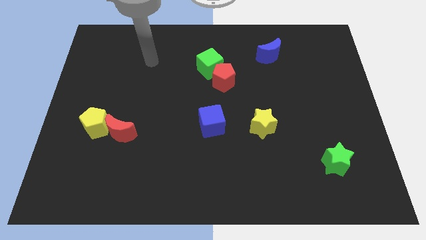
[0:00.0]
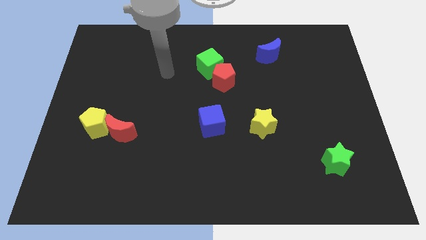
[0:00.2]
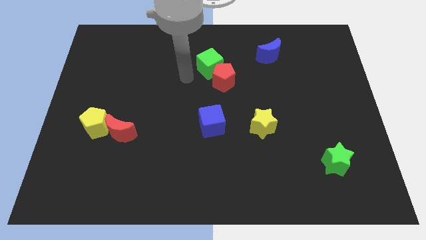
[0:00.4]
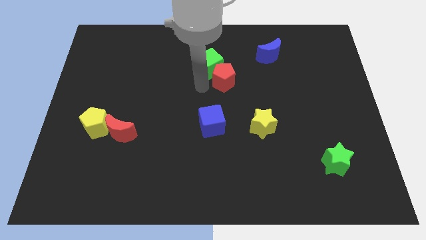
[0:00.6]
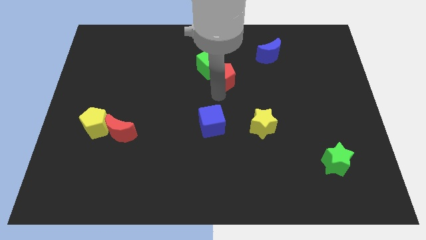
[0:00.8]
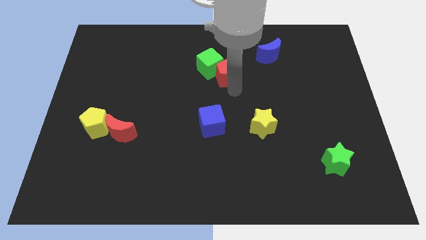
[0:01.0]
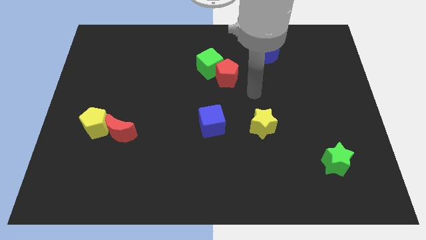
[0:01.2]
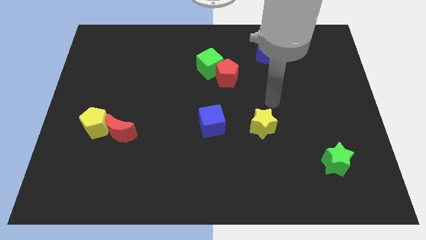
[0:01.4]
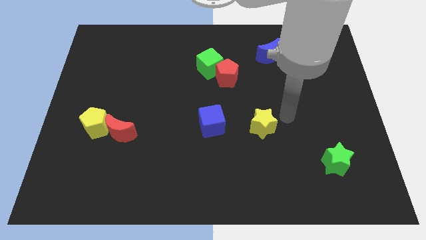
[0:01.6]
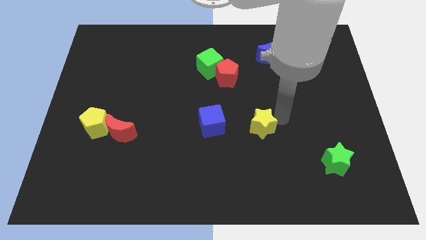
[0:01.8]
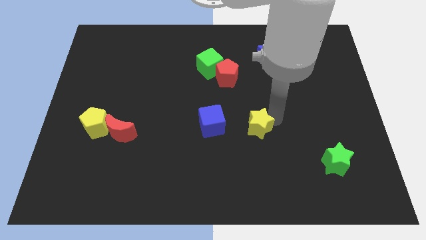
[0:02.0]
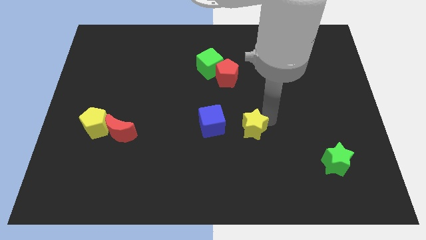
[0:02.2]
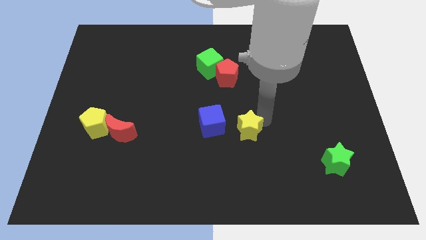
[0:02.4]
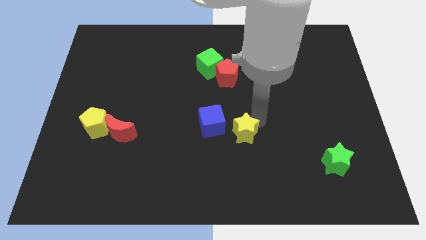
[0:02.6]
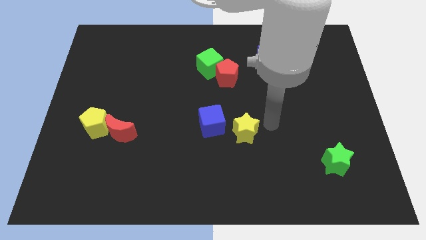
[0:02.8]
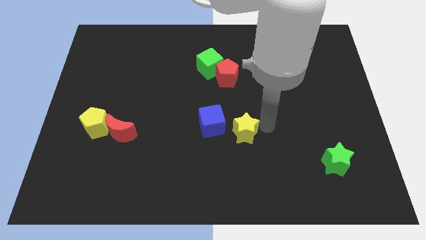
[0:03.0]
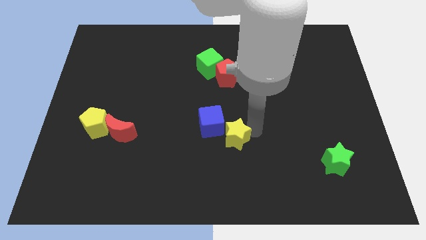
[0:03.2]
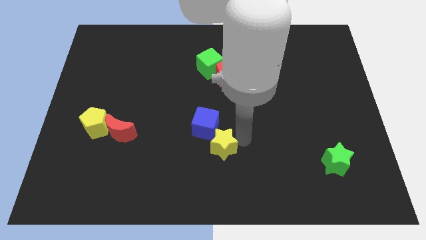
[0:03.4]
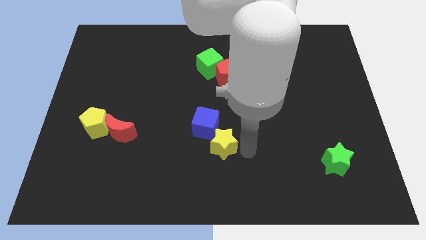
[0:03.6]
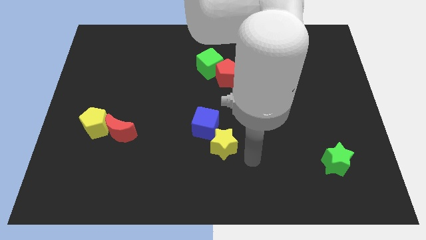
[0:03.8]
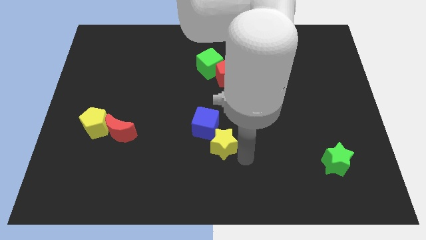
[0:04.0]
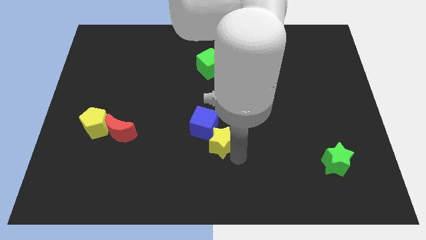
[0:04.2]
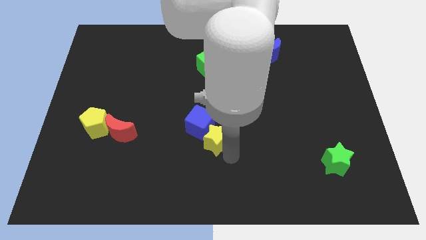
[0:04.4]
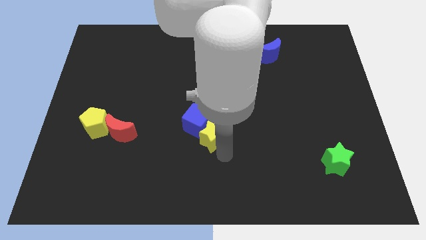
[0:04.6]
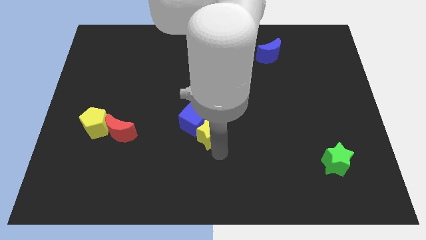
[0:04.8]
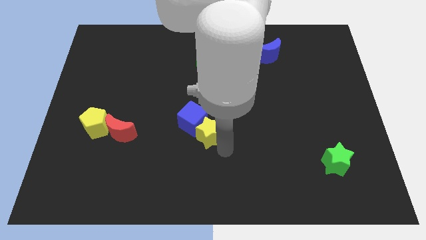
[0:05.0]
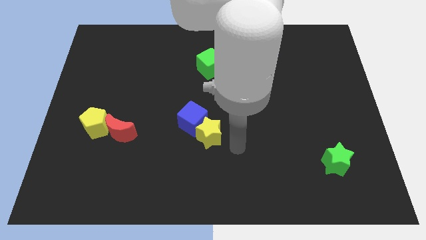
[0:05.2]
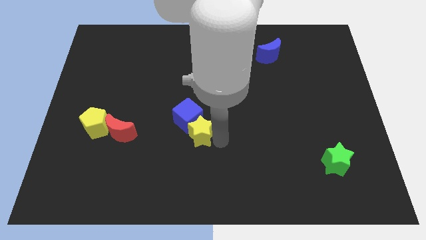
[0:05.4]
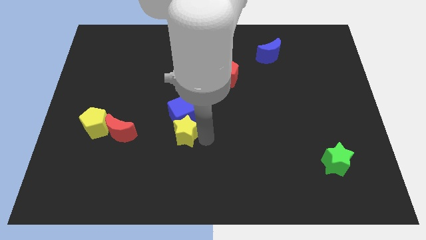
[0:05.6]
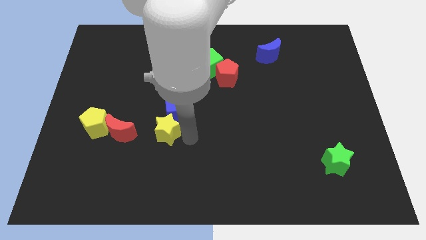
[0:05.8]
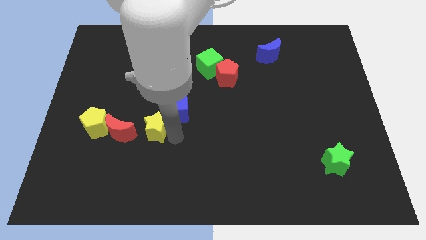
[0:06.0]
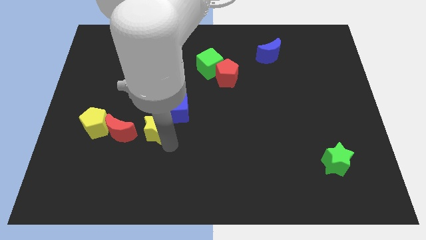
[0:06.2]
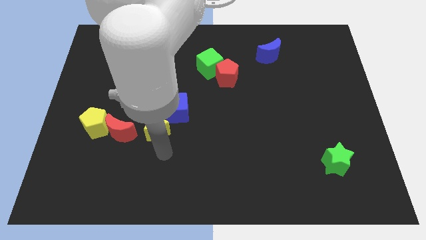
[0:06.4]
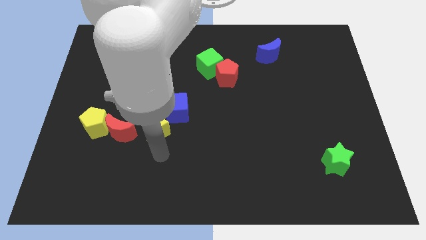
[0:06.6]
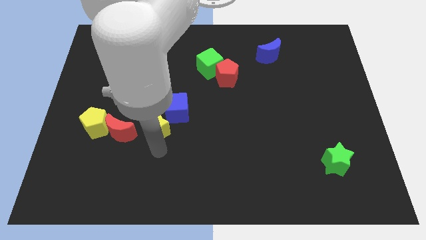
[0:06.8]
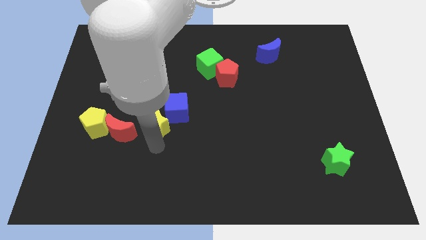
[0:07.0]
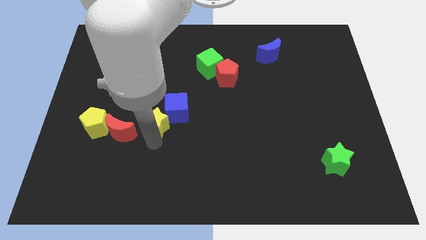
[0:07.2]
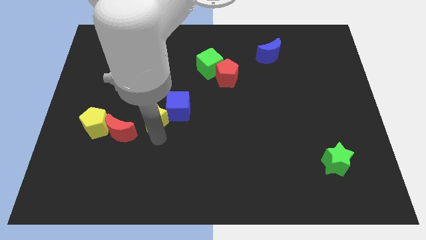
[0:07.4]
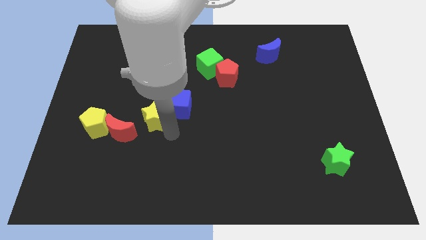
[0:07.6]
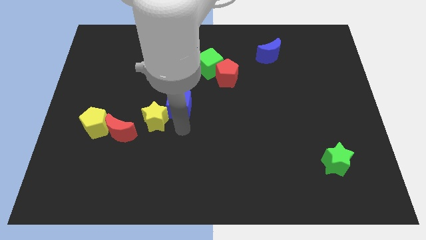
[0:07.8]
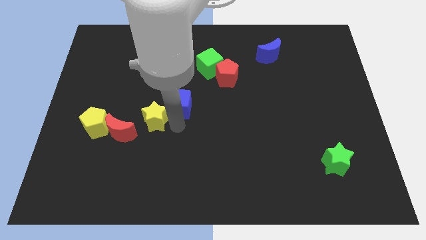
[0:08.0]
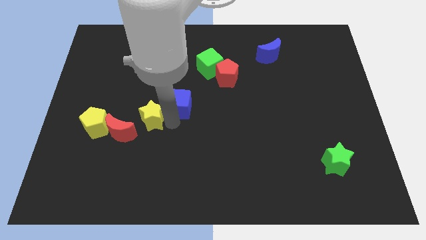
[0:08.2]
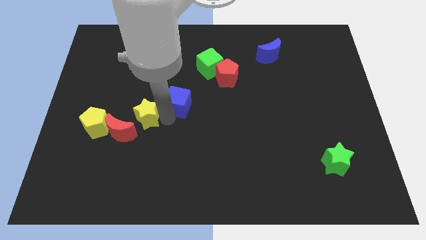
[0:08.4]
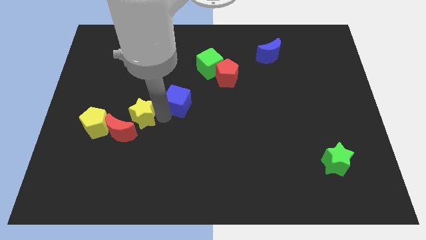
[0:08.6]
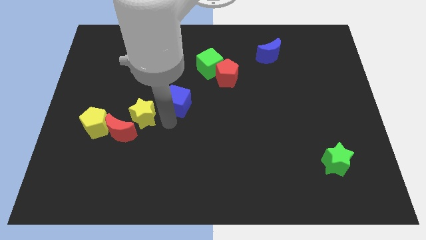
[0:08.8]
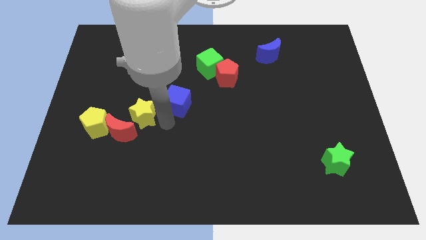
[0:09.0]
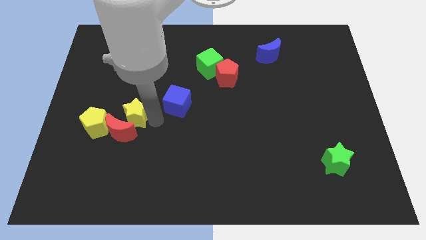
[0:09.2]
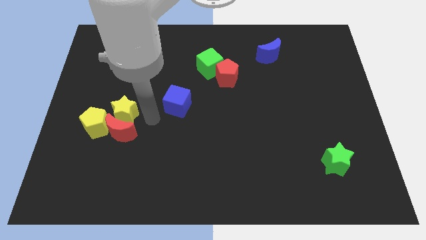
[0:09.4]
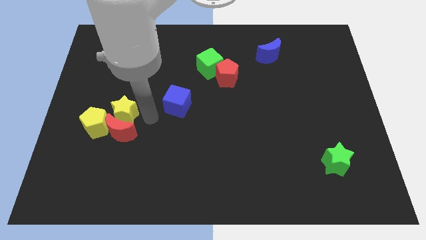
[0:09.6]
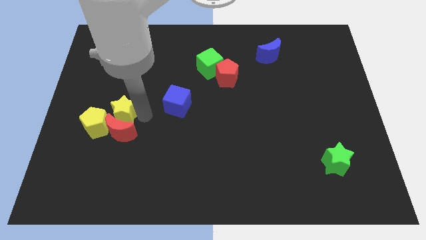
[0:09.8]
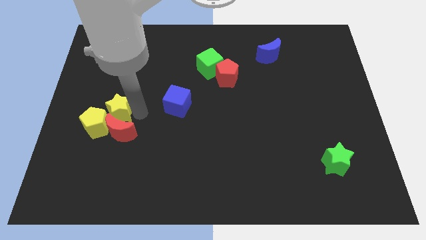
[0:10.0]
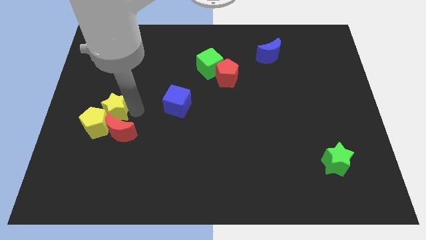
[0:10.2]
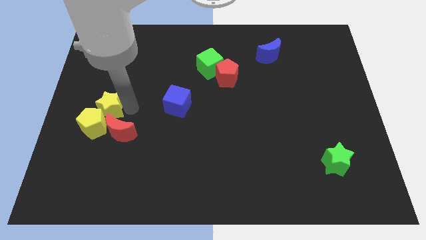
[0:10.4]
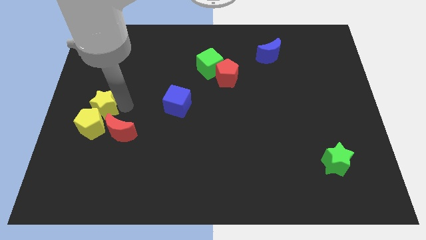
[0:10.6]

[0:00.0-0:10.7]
push the yellow star to the left side
